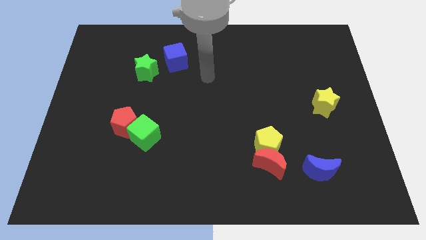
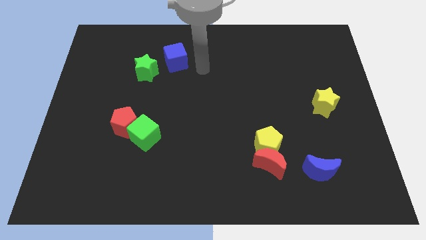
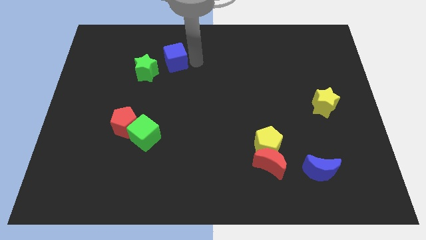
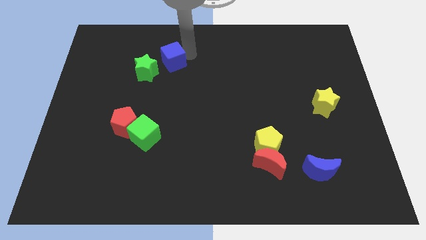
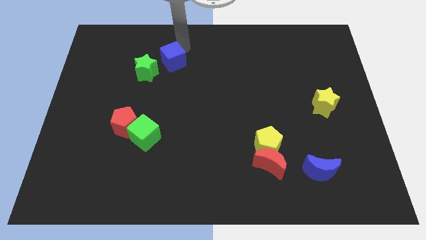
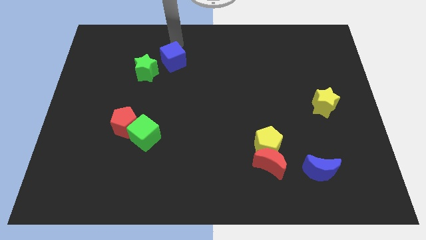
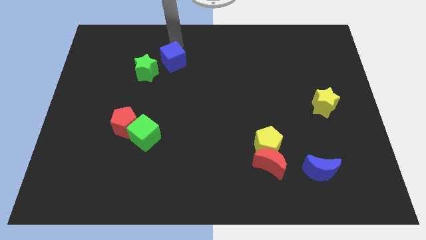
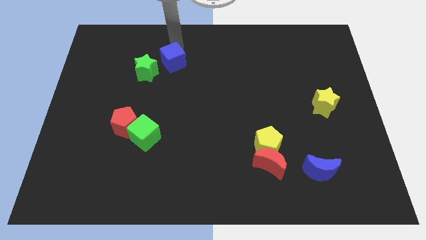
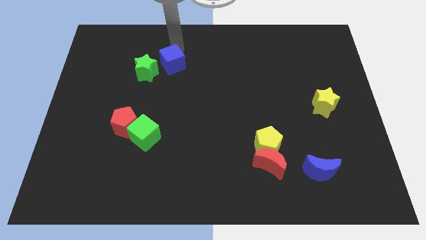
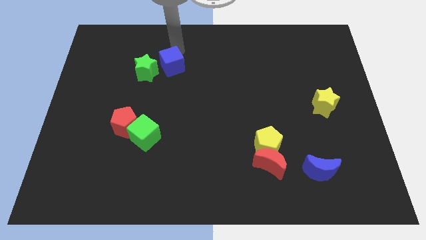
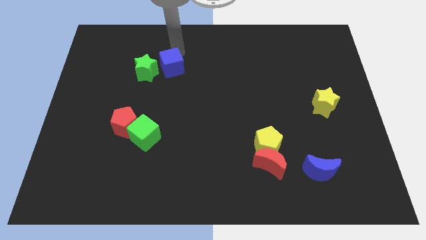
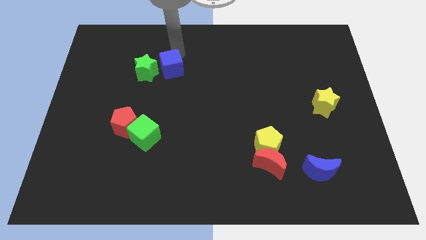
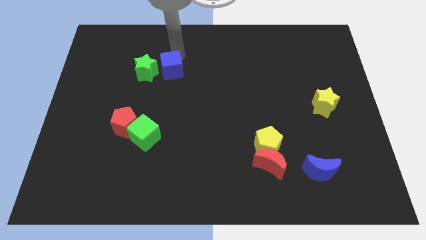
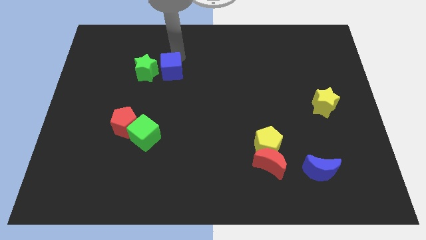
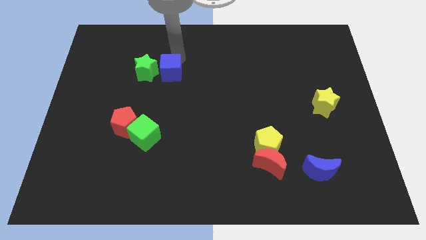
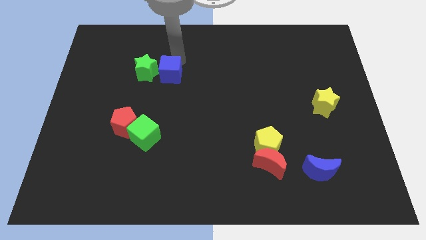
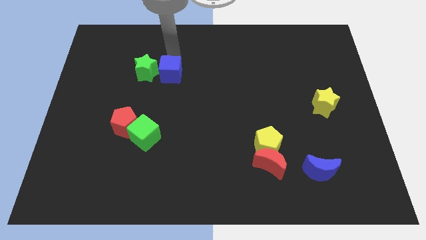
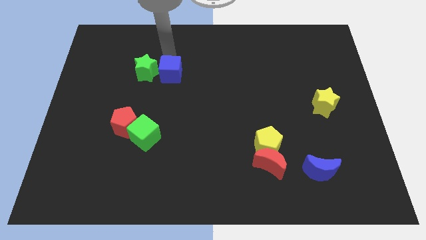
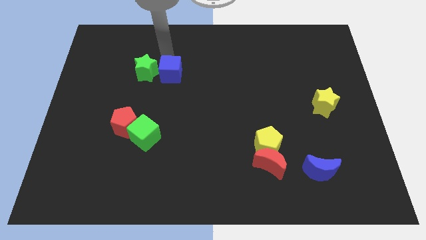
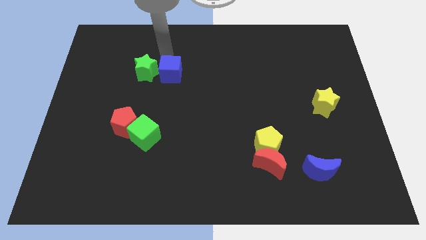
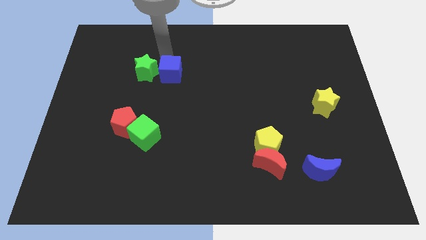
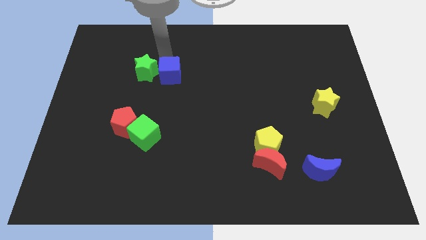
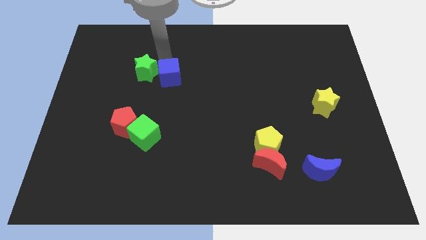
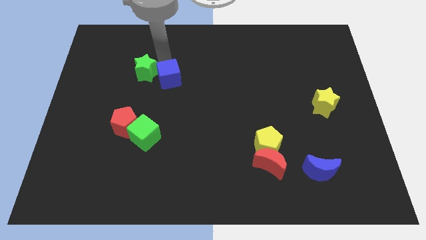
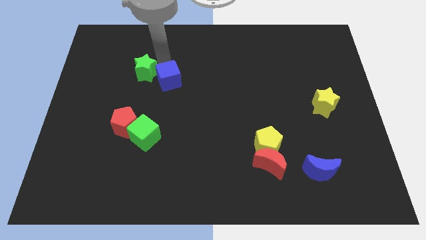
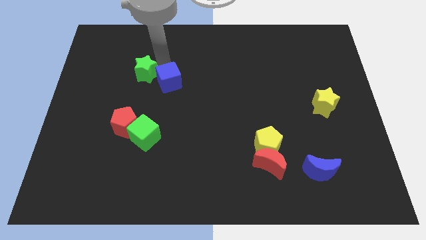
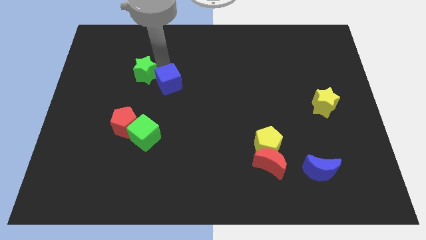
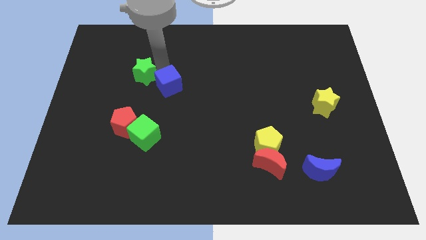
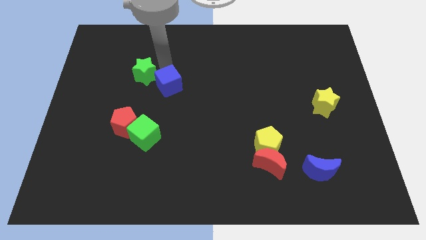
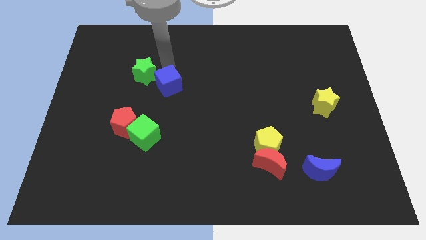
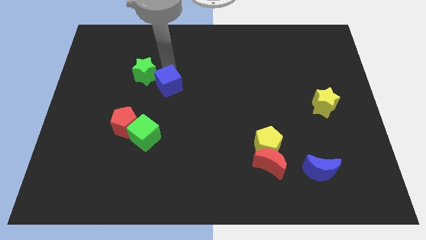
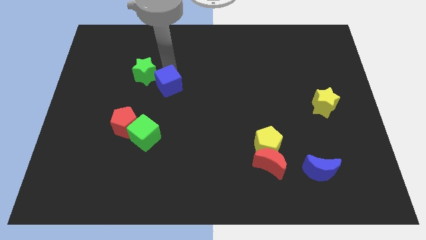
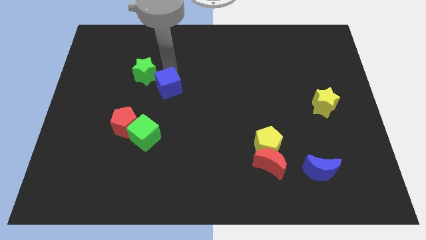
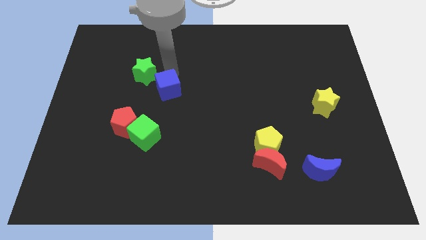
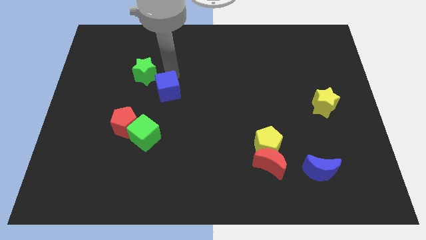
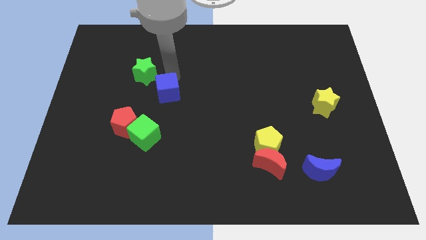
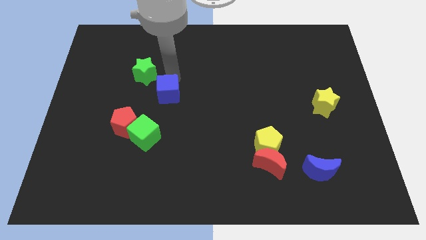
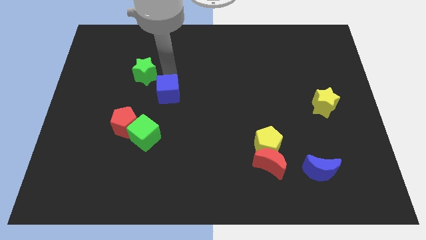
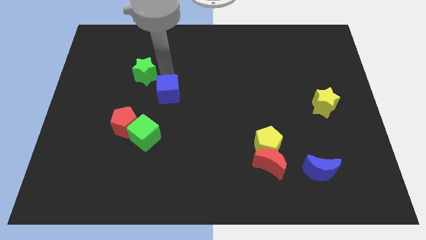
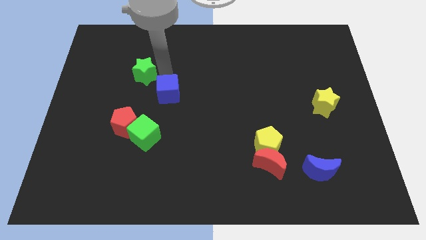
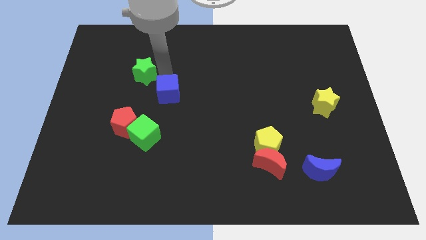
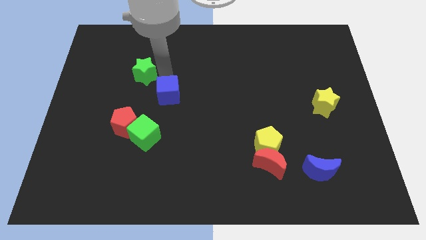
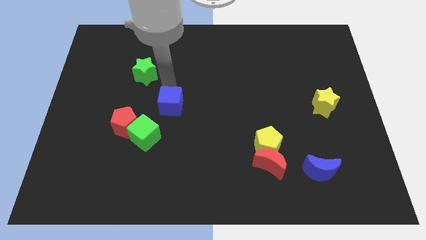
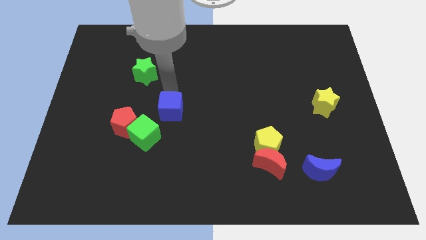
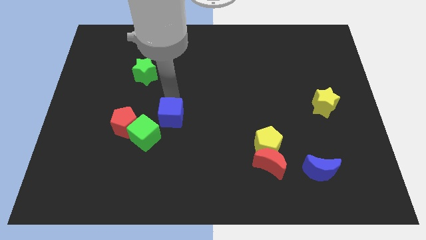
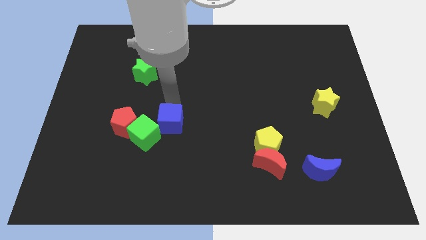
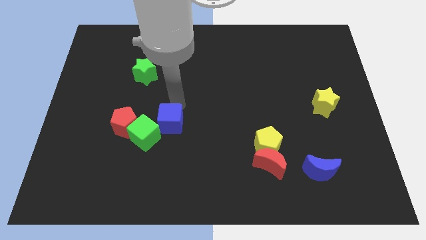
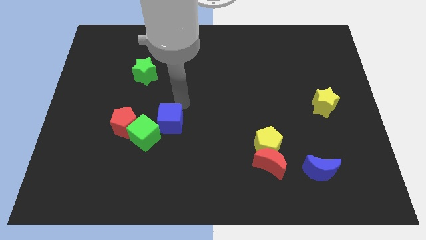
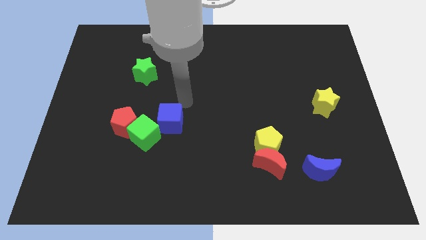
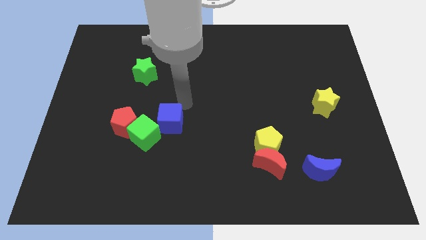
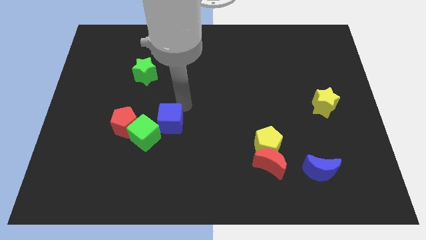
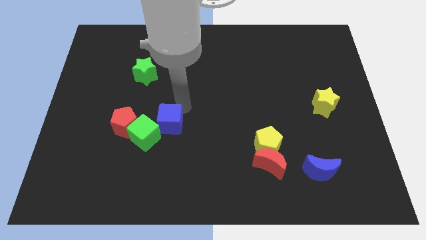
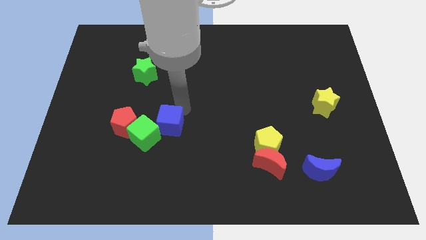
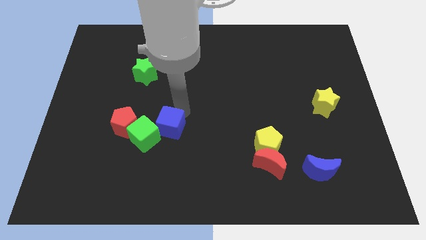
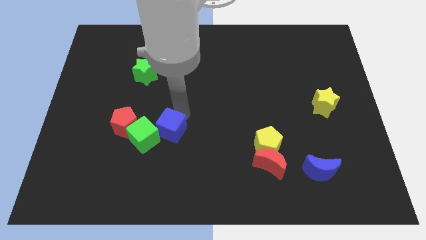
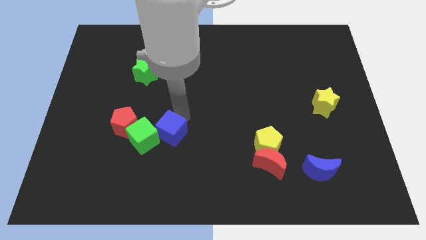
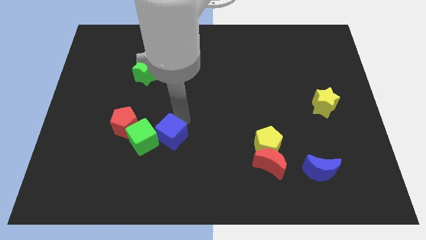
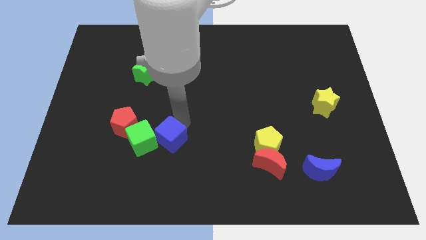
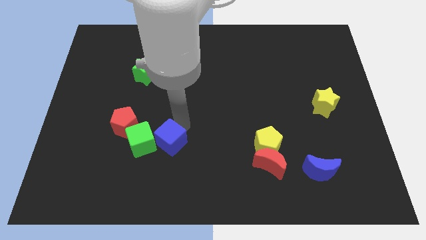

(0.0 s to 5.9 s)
slide the blue cube diagonally down and to the right of the red pentagon

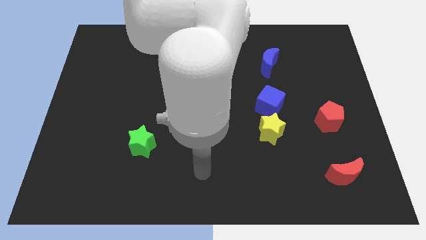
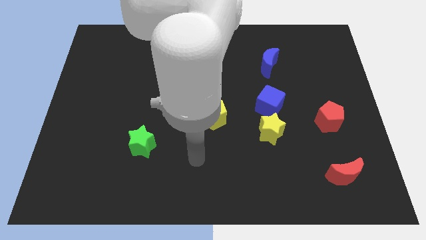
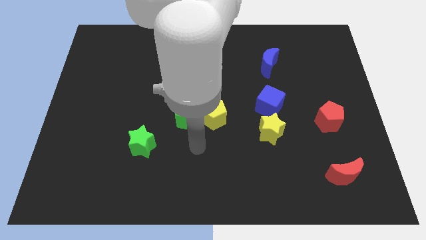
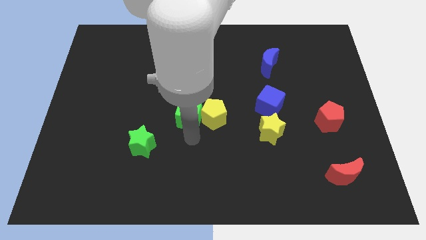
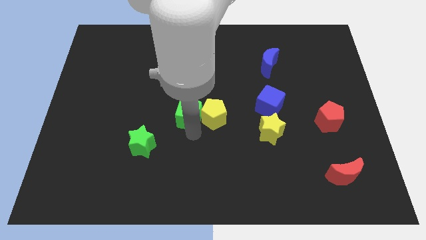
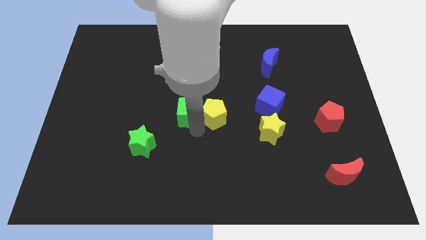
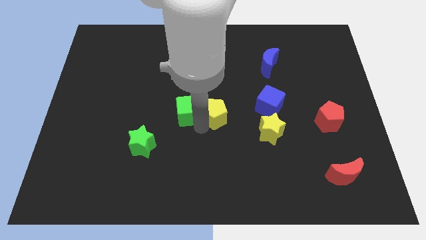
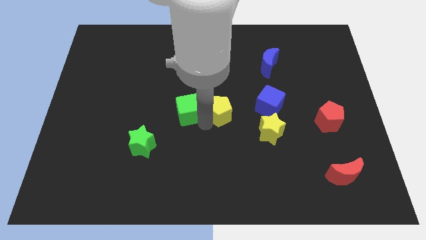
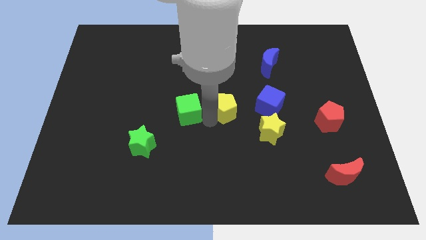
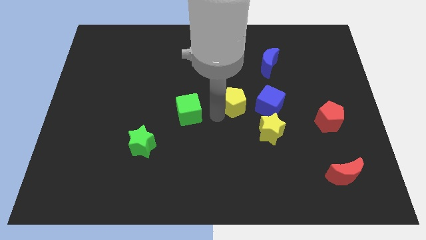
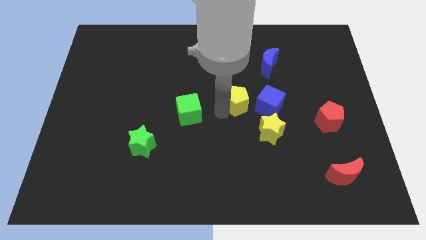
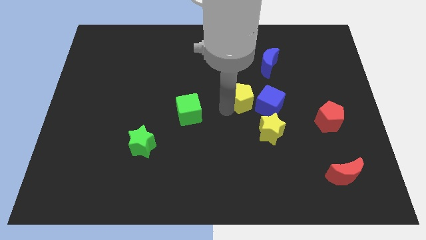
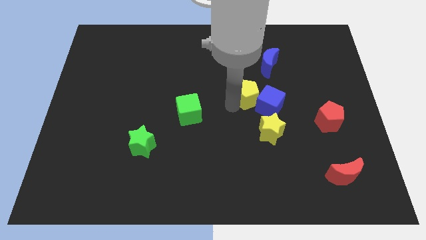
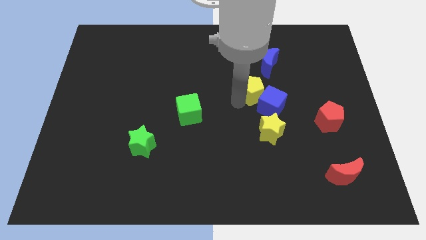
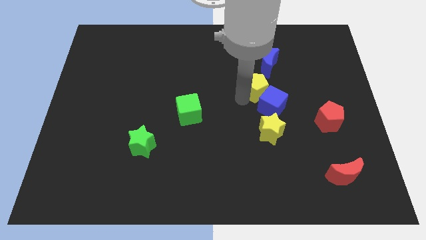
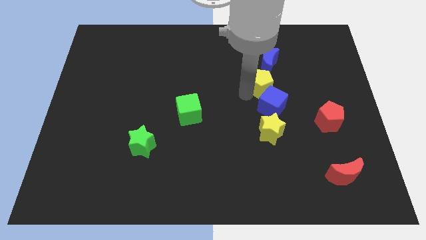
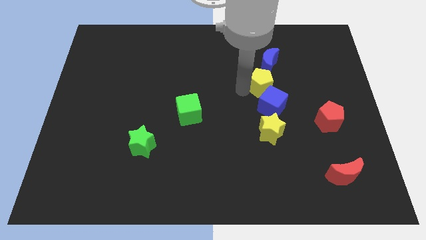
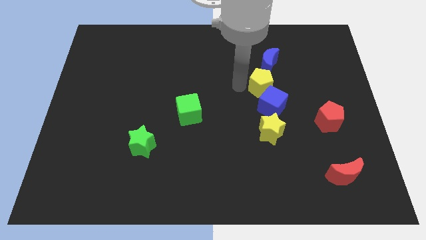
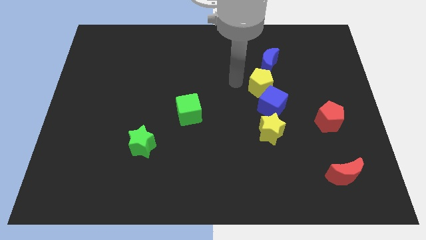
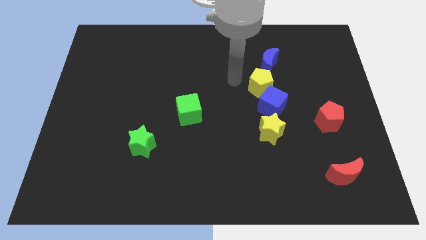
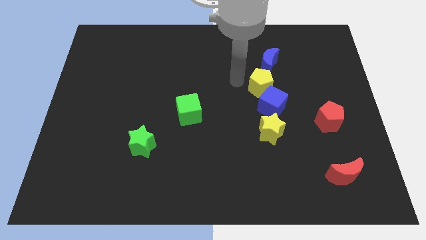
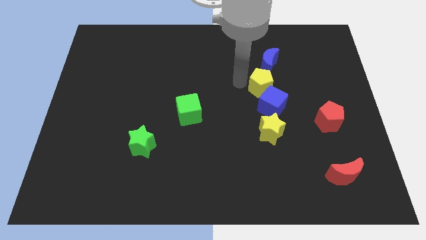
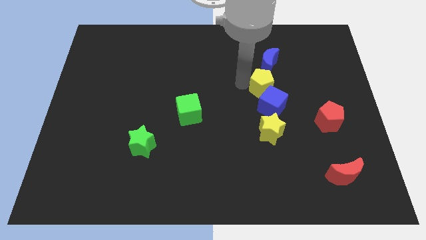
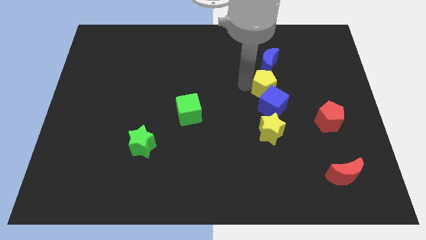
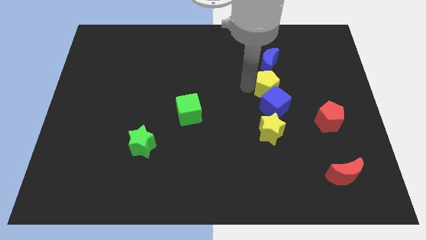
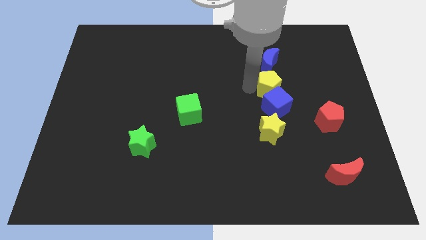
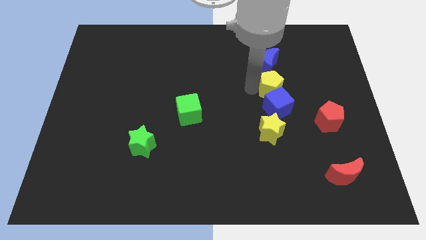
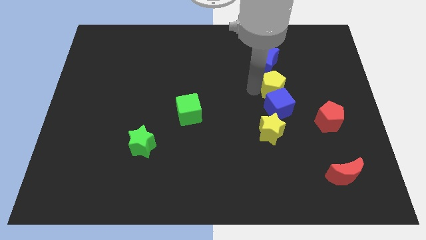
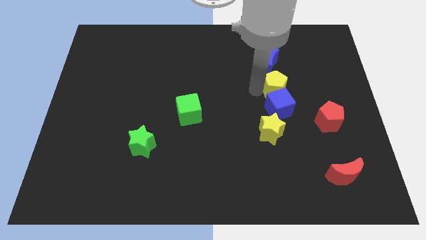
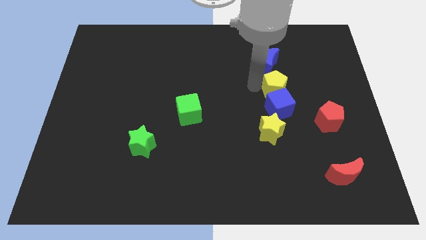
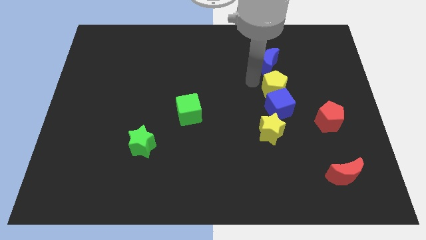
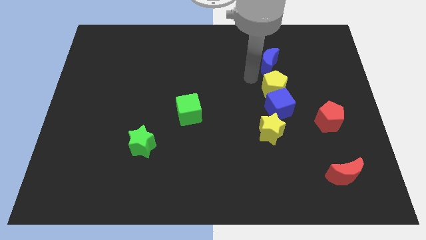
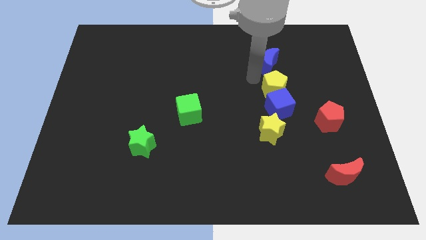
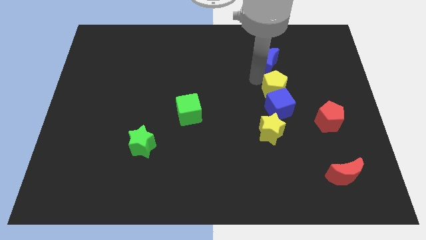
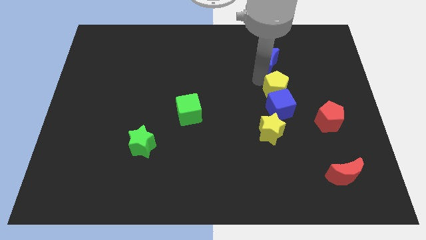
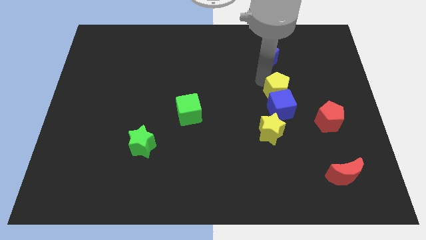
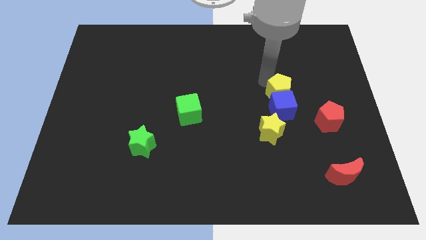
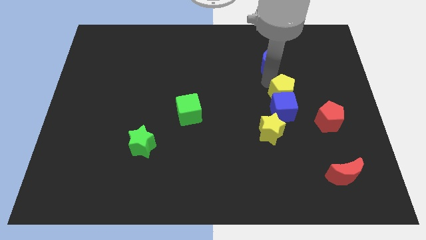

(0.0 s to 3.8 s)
put the yellow pentagon to the top left of the red pentagon
